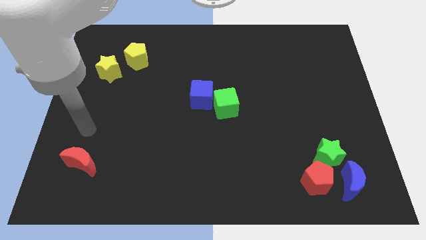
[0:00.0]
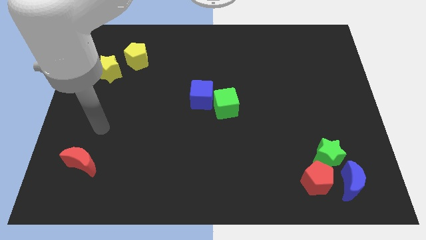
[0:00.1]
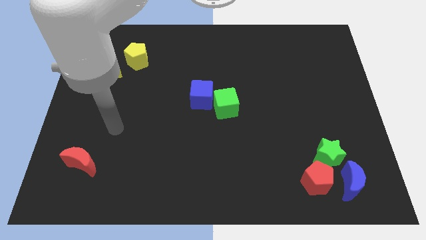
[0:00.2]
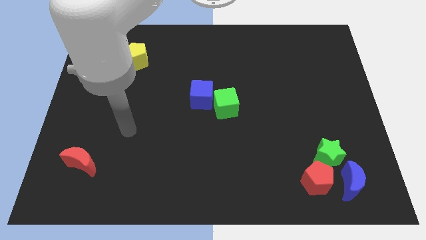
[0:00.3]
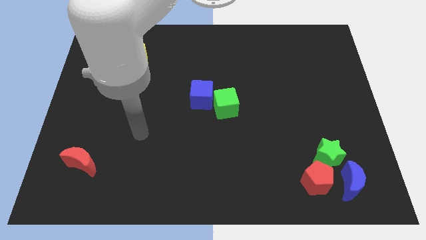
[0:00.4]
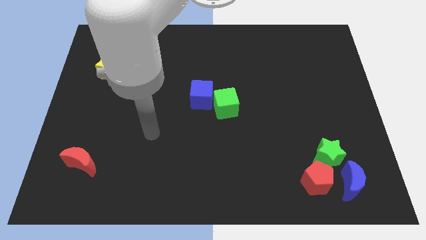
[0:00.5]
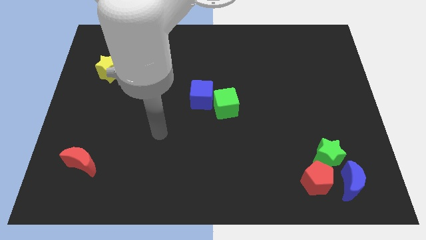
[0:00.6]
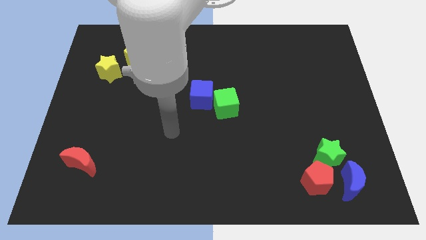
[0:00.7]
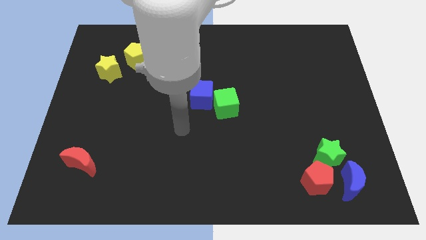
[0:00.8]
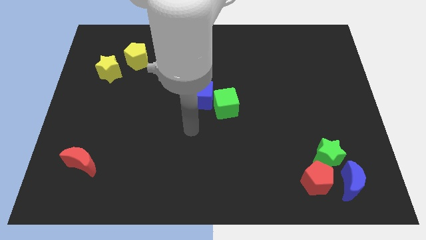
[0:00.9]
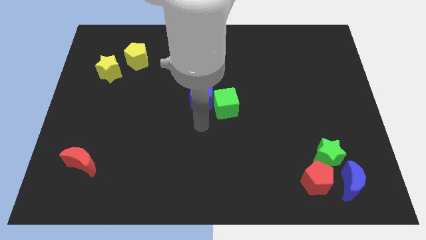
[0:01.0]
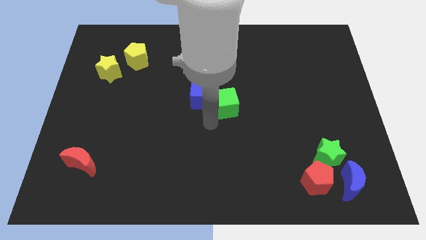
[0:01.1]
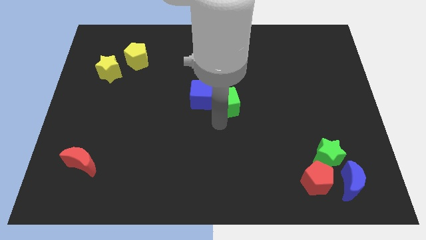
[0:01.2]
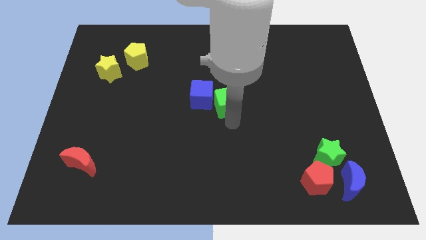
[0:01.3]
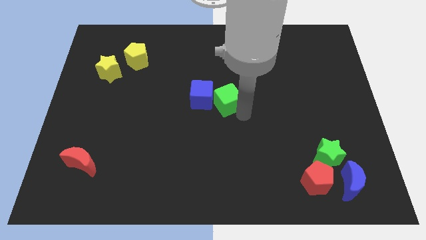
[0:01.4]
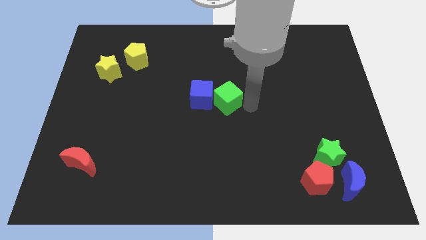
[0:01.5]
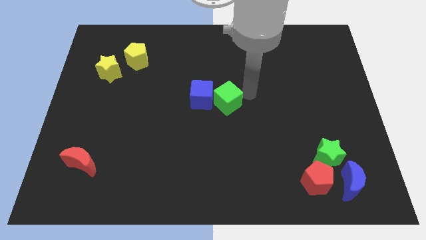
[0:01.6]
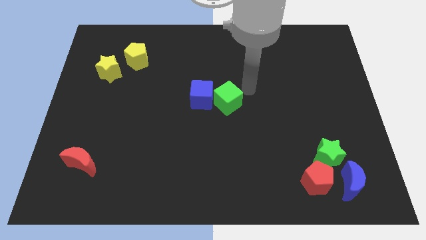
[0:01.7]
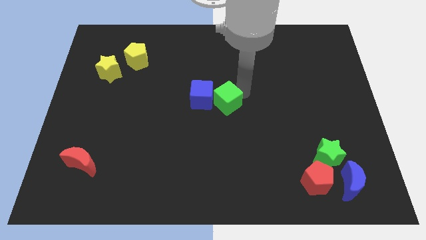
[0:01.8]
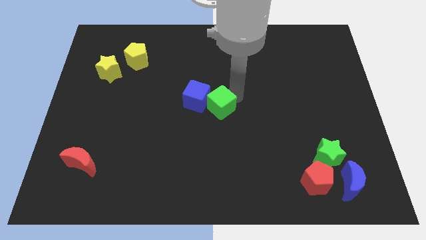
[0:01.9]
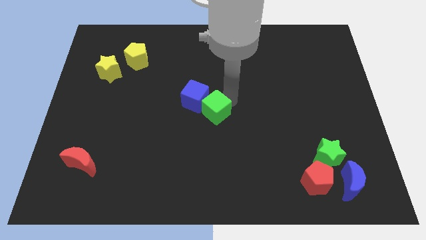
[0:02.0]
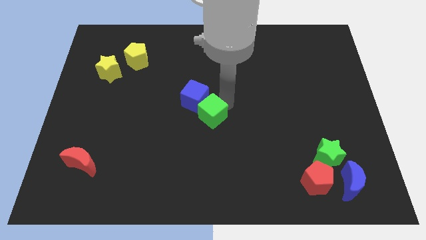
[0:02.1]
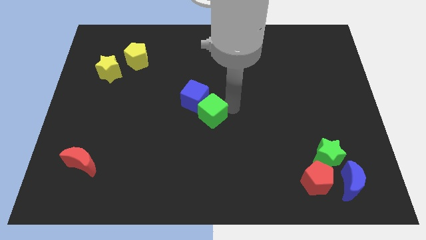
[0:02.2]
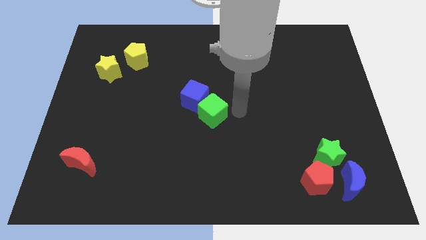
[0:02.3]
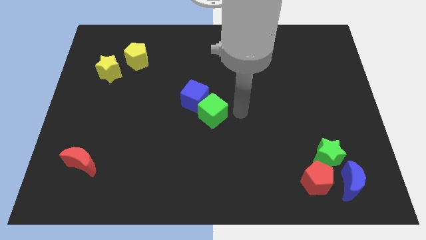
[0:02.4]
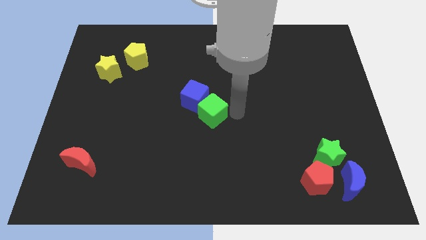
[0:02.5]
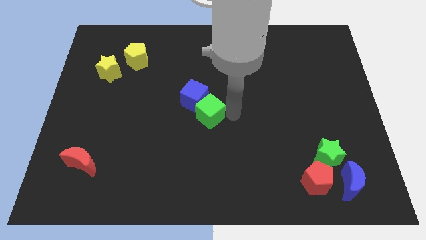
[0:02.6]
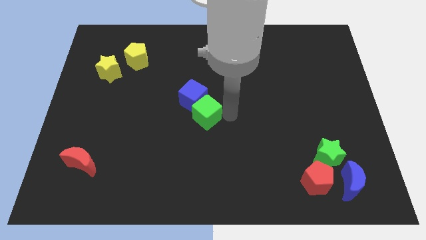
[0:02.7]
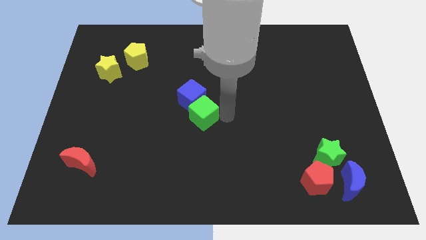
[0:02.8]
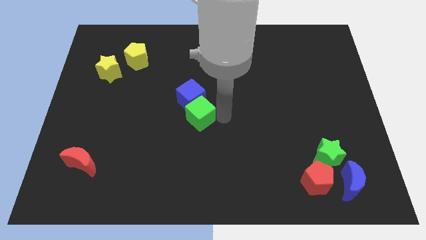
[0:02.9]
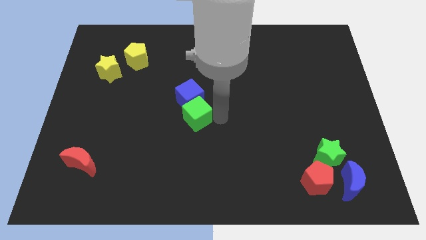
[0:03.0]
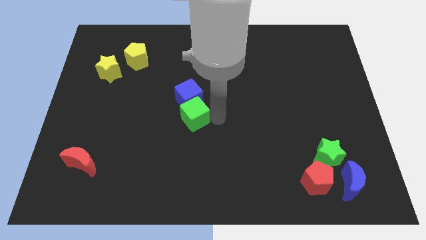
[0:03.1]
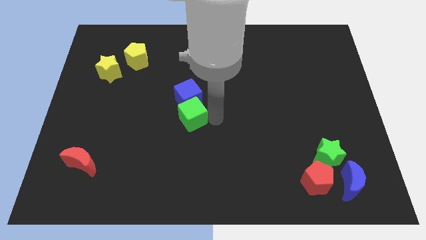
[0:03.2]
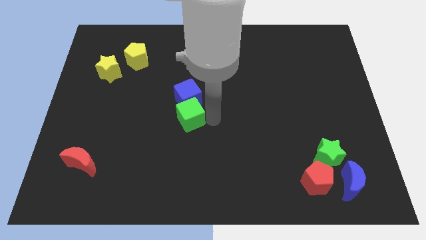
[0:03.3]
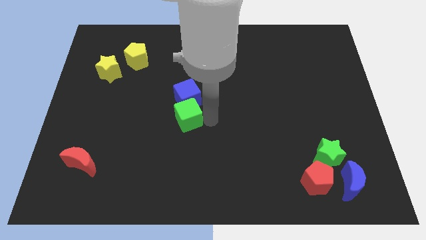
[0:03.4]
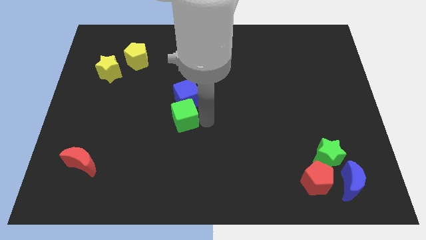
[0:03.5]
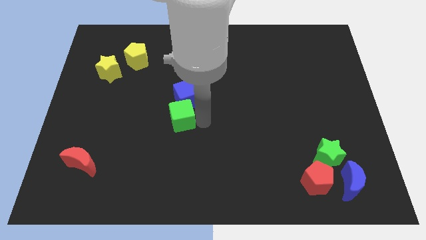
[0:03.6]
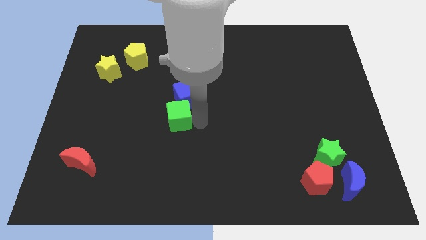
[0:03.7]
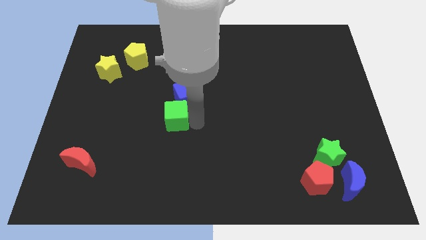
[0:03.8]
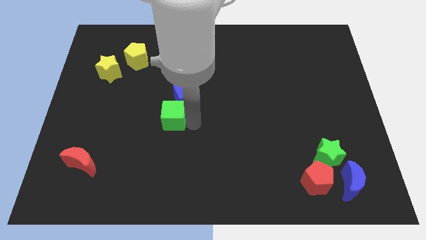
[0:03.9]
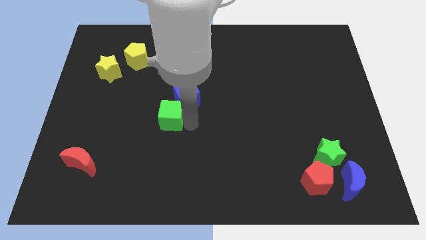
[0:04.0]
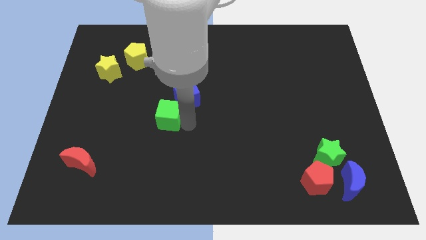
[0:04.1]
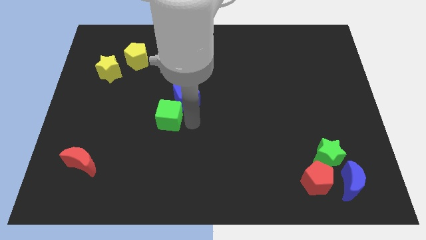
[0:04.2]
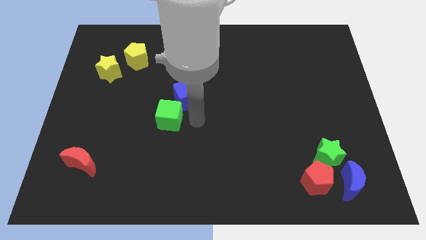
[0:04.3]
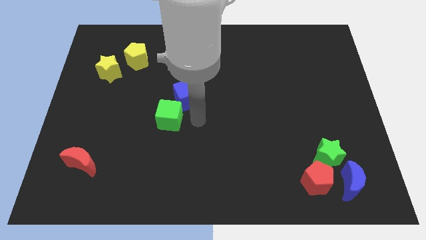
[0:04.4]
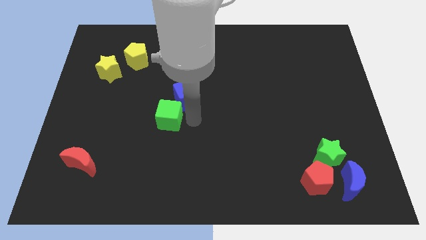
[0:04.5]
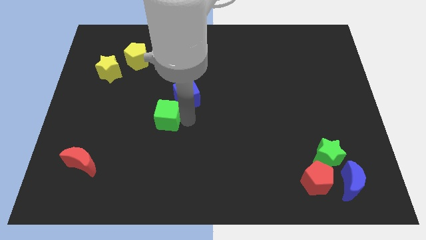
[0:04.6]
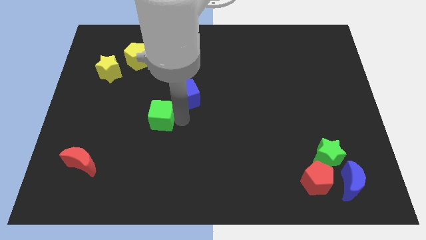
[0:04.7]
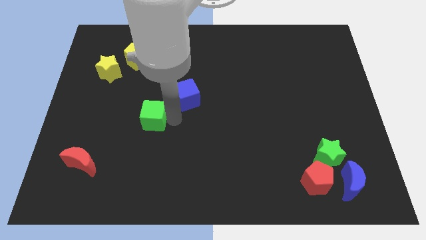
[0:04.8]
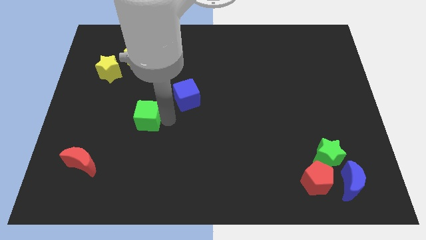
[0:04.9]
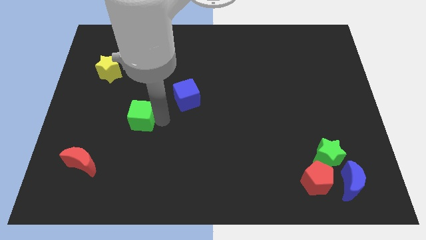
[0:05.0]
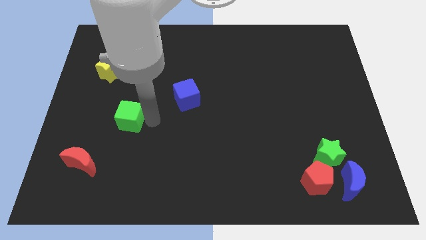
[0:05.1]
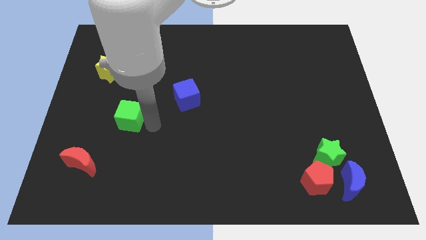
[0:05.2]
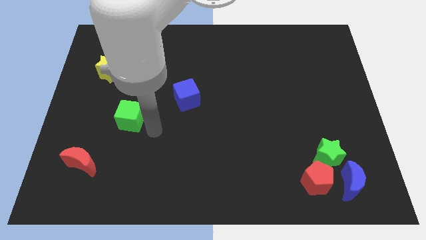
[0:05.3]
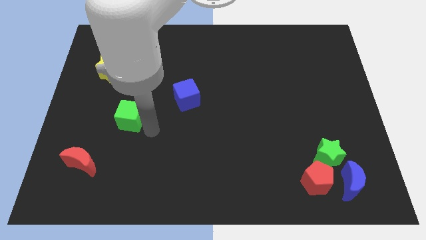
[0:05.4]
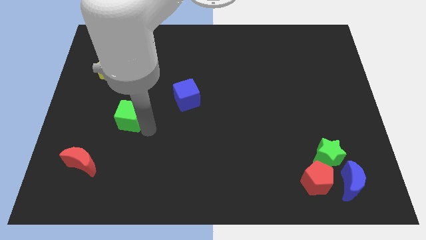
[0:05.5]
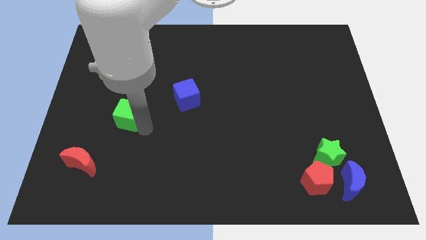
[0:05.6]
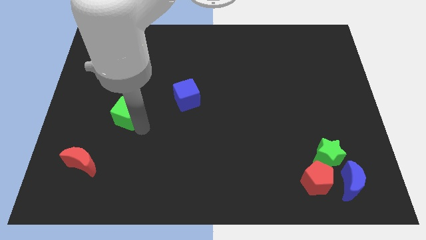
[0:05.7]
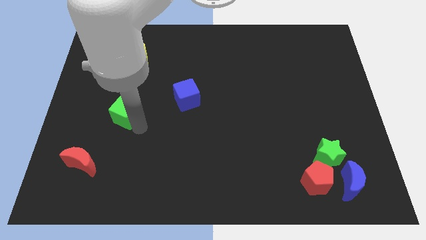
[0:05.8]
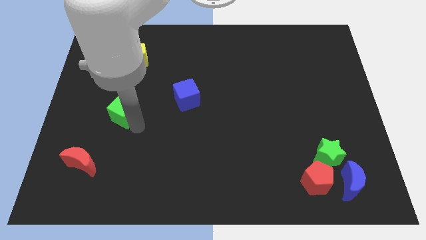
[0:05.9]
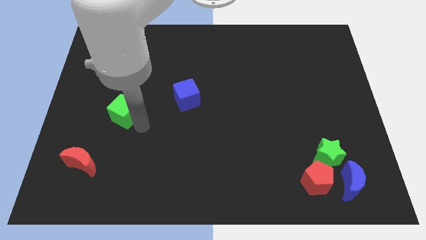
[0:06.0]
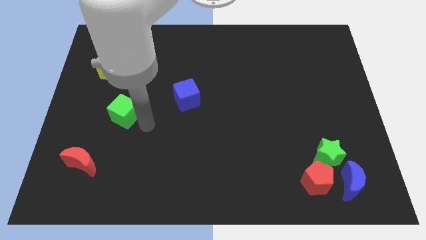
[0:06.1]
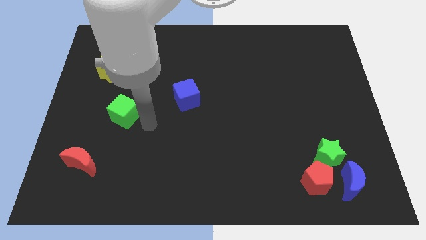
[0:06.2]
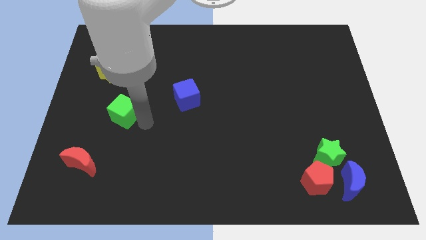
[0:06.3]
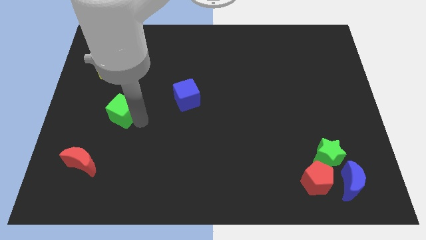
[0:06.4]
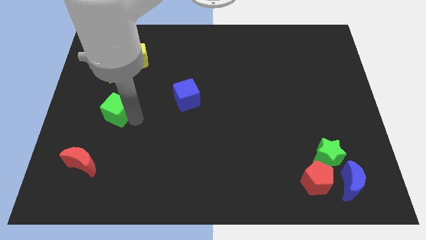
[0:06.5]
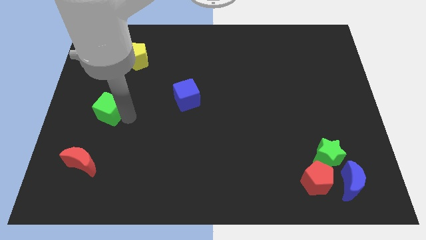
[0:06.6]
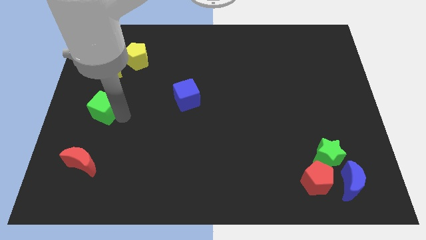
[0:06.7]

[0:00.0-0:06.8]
push the green cube to the left side of the board
